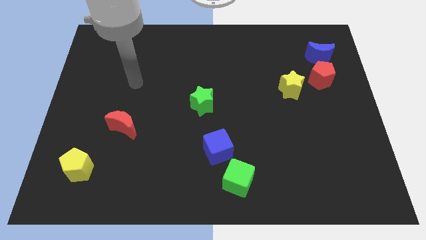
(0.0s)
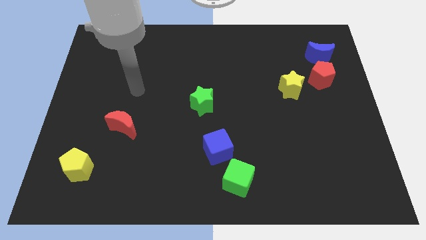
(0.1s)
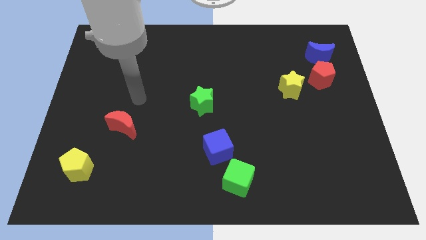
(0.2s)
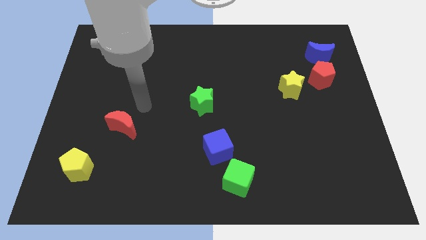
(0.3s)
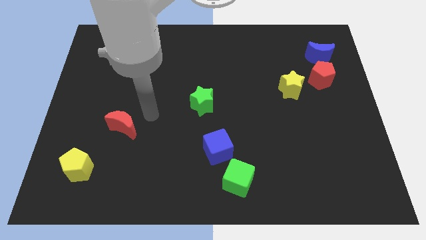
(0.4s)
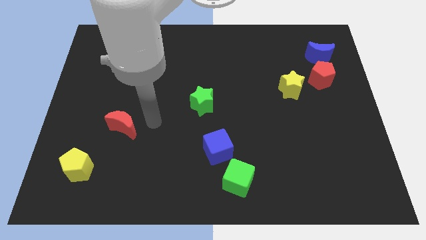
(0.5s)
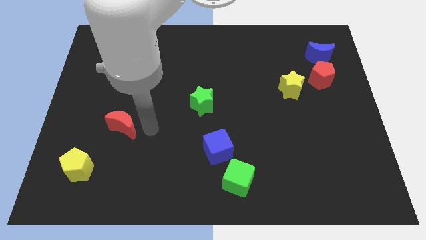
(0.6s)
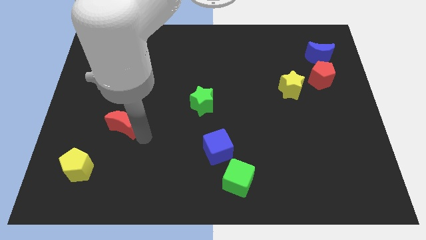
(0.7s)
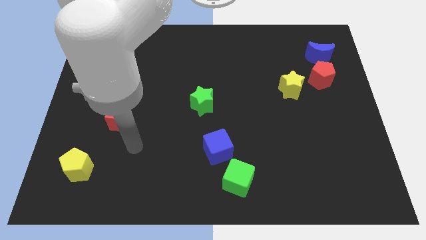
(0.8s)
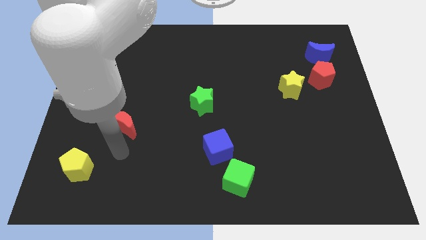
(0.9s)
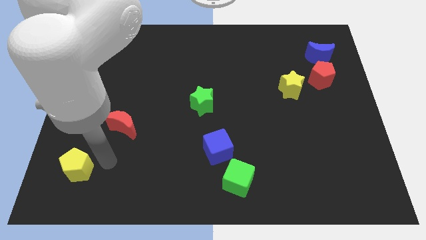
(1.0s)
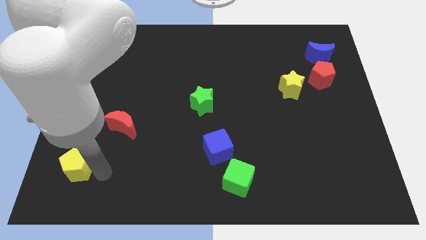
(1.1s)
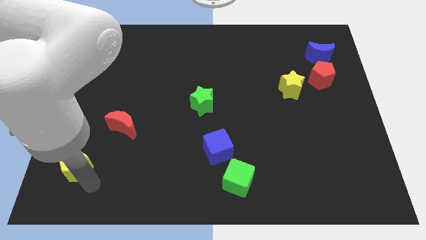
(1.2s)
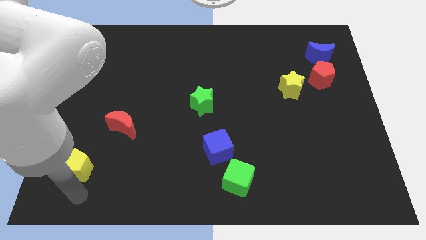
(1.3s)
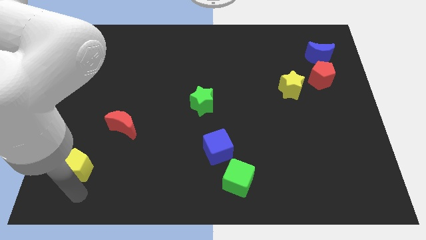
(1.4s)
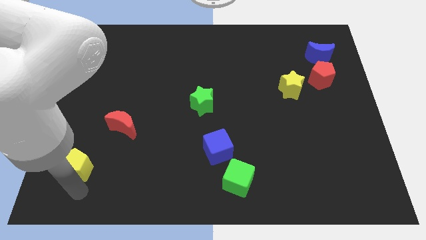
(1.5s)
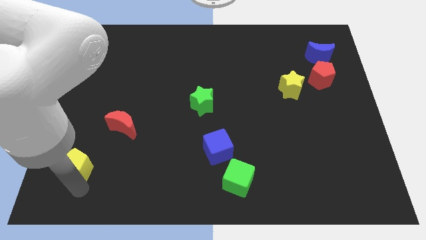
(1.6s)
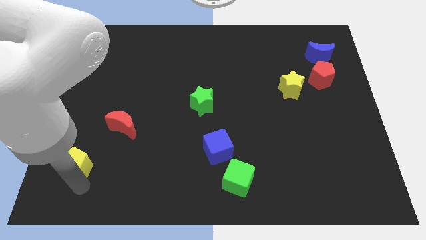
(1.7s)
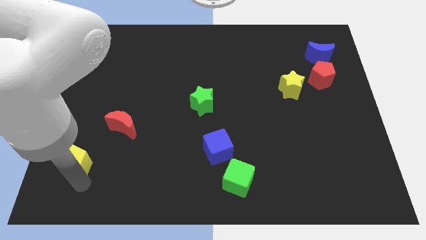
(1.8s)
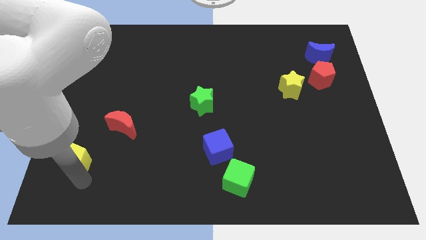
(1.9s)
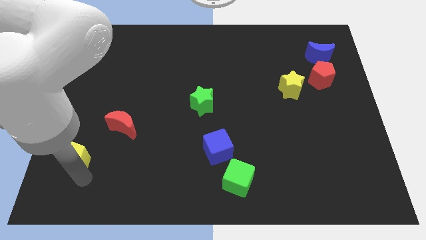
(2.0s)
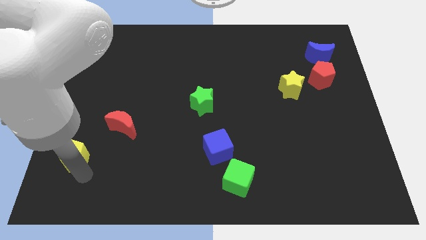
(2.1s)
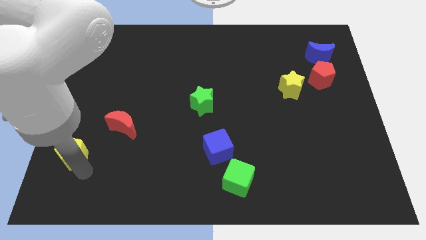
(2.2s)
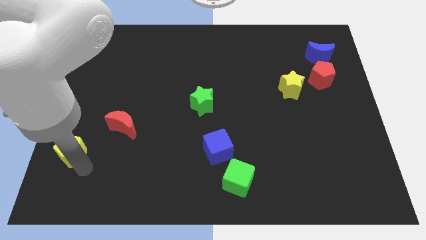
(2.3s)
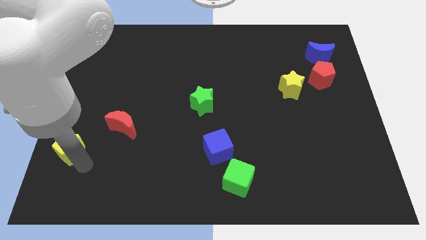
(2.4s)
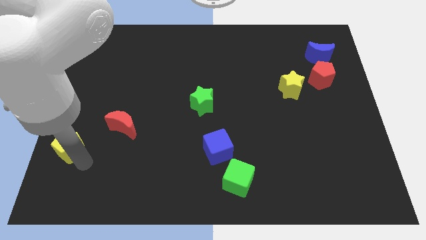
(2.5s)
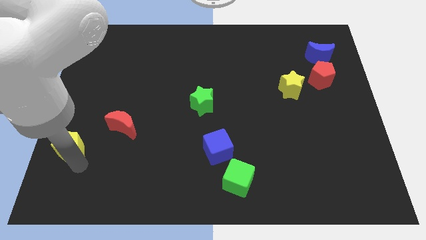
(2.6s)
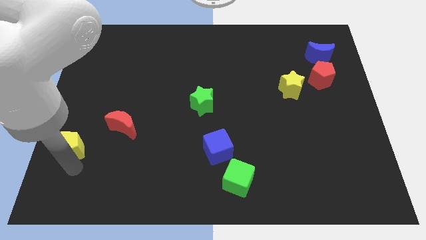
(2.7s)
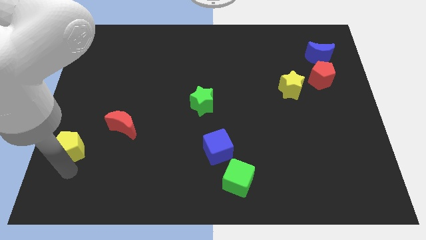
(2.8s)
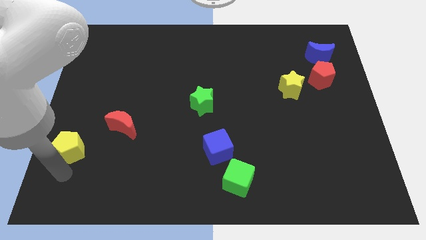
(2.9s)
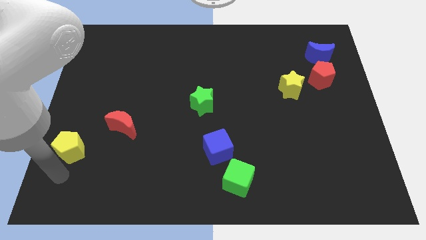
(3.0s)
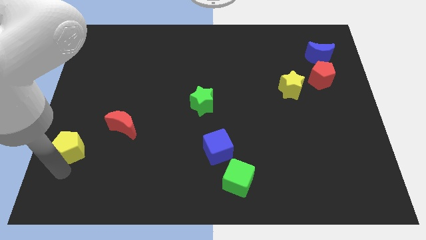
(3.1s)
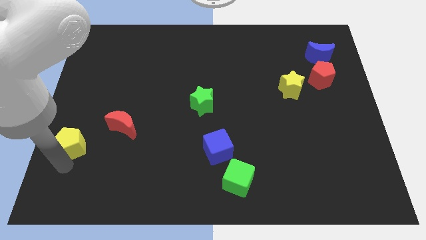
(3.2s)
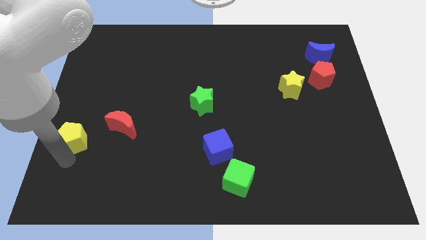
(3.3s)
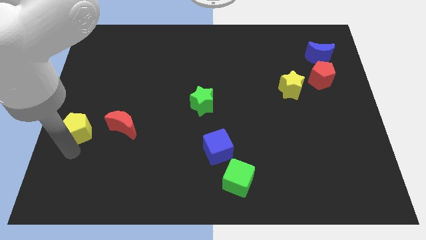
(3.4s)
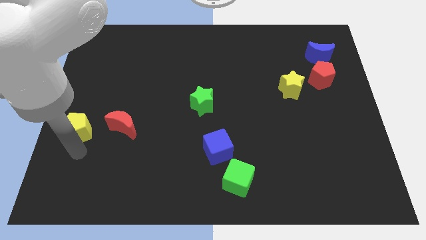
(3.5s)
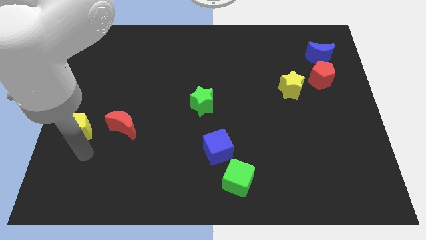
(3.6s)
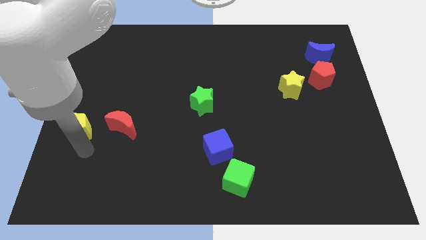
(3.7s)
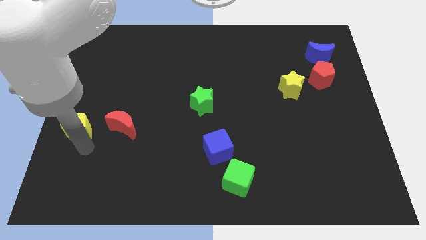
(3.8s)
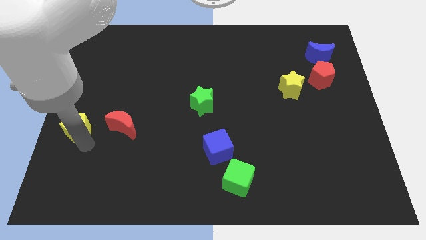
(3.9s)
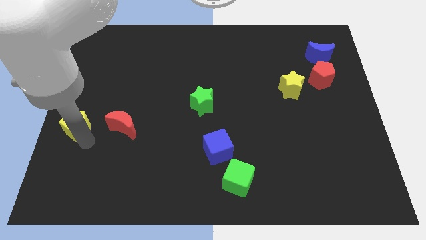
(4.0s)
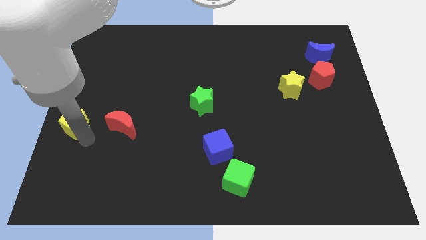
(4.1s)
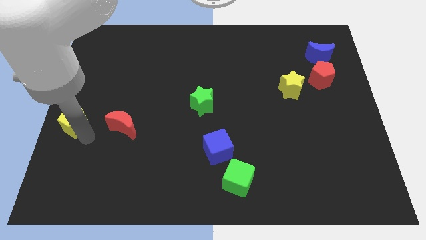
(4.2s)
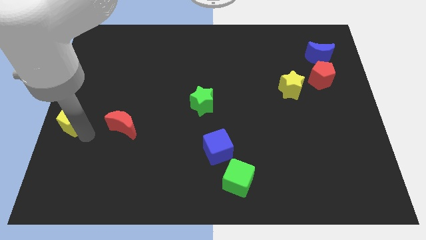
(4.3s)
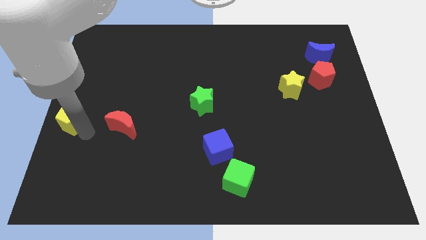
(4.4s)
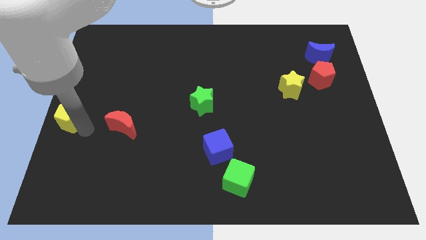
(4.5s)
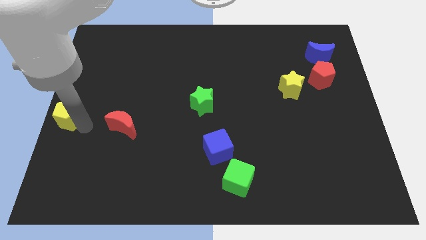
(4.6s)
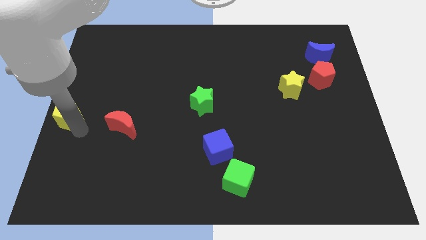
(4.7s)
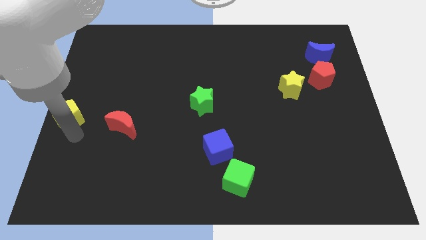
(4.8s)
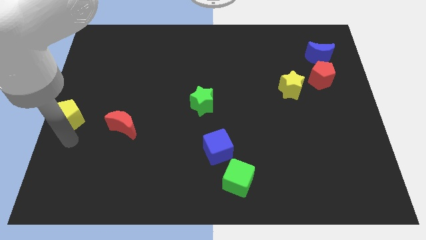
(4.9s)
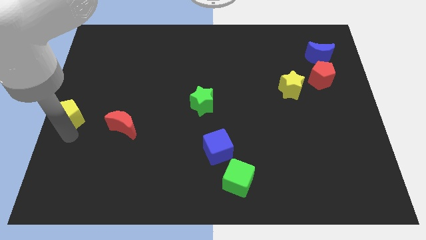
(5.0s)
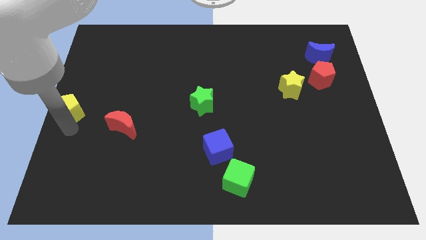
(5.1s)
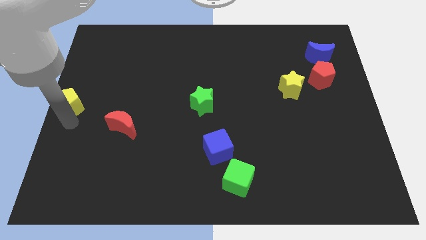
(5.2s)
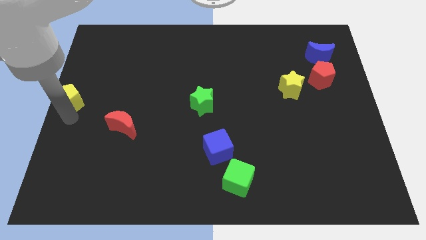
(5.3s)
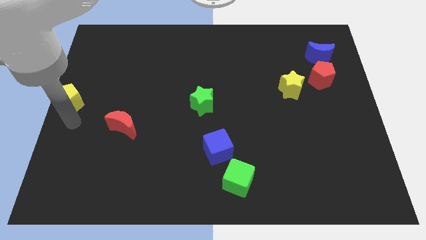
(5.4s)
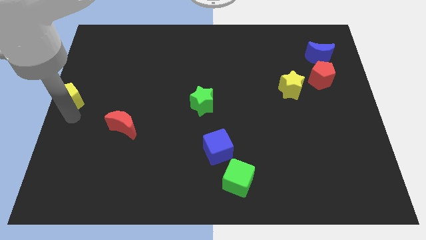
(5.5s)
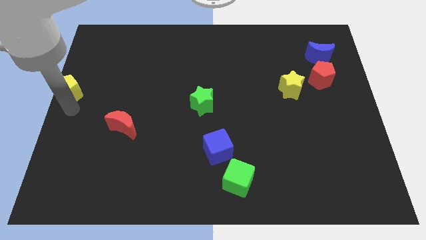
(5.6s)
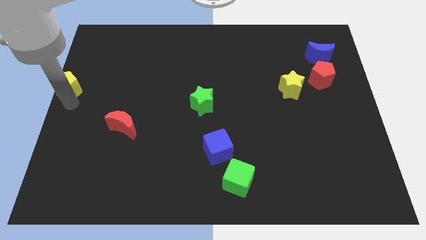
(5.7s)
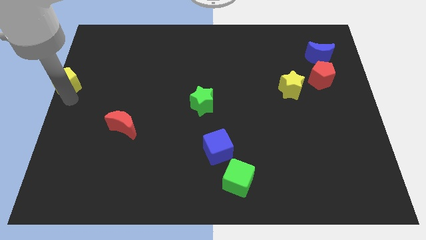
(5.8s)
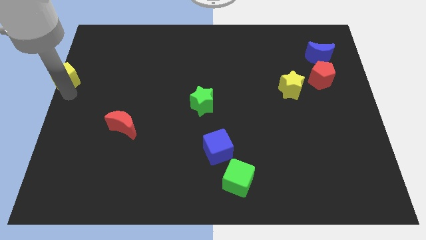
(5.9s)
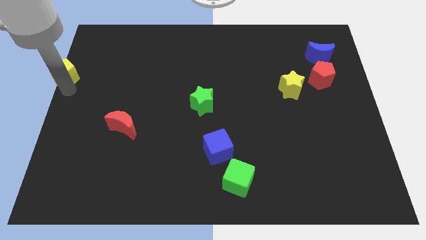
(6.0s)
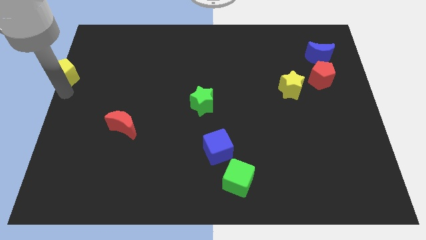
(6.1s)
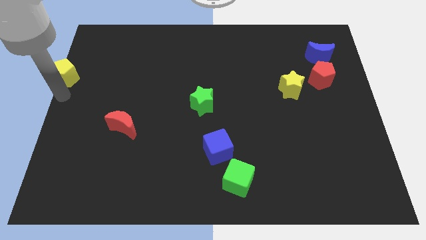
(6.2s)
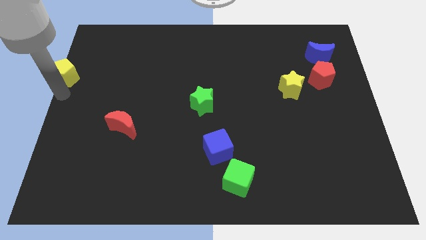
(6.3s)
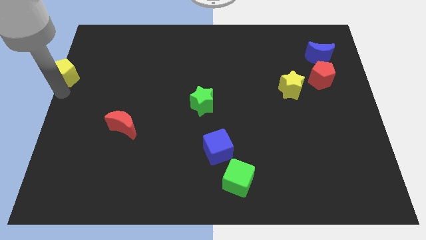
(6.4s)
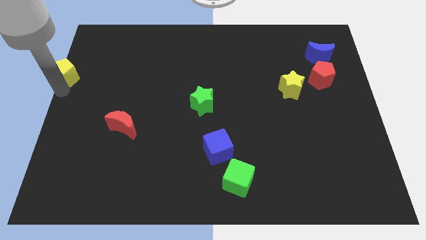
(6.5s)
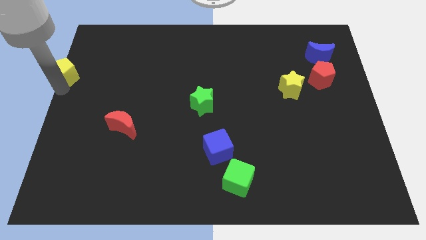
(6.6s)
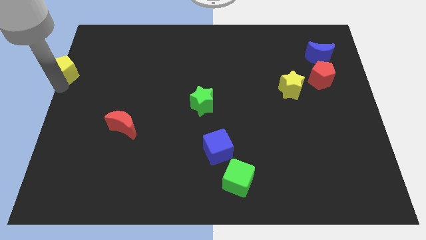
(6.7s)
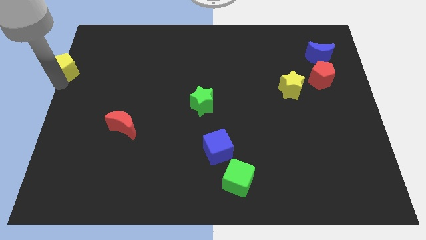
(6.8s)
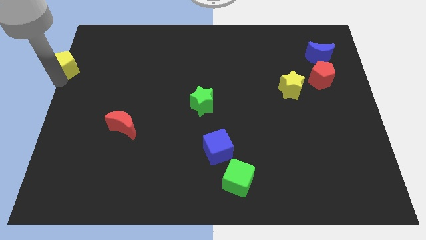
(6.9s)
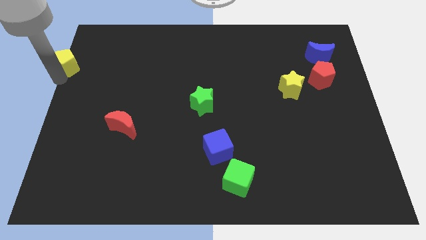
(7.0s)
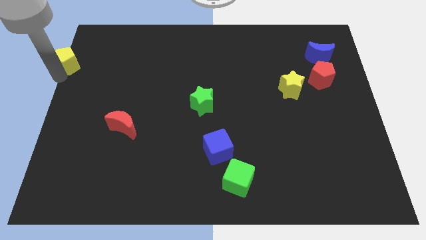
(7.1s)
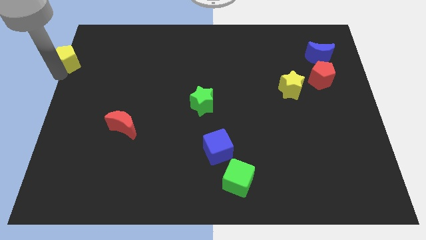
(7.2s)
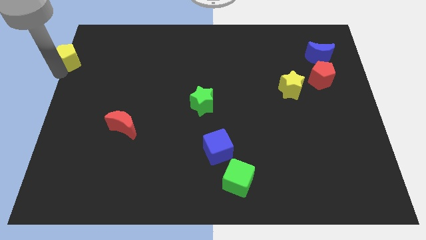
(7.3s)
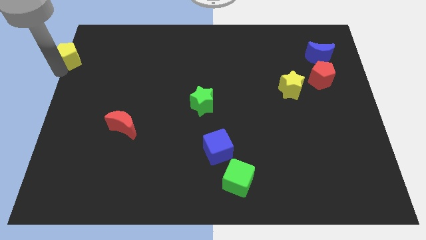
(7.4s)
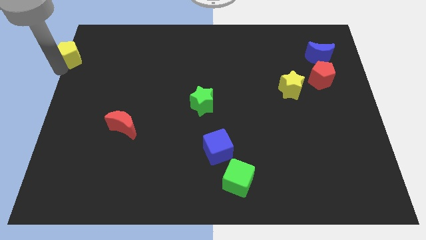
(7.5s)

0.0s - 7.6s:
push the yellow pentagon to the top left corner

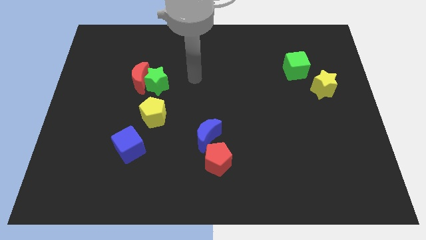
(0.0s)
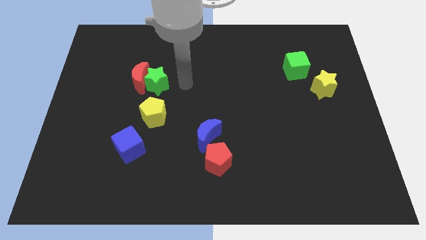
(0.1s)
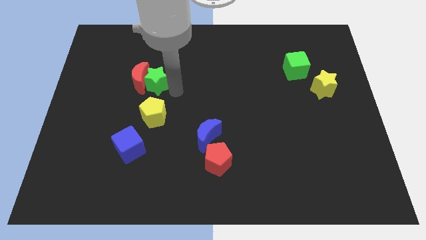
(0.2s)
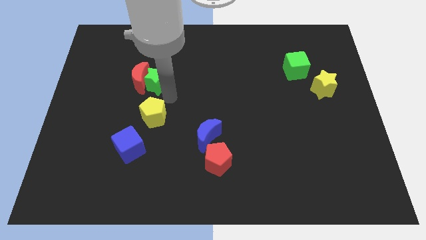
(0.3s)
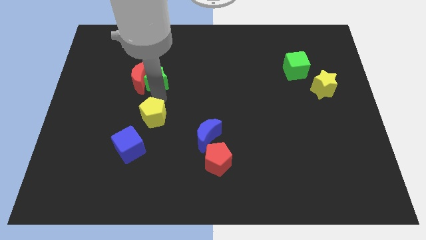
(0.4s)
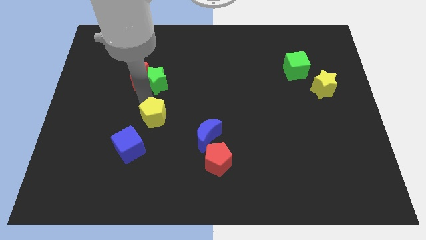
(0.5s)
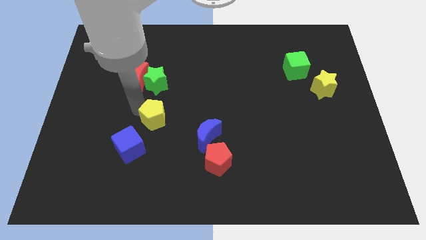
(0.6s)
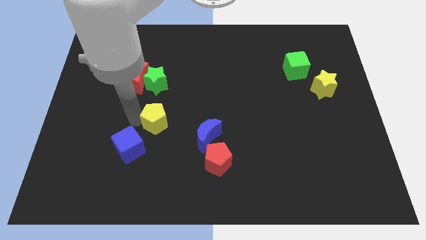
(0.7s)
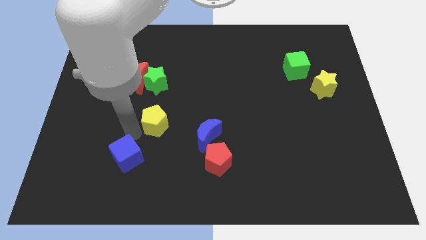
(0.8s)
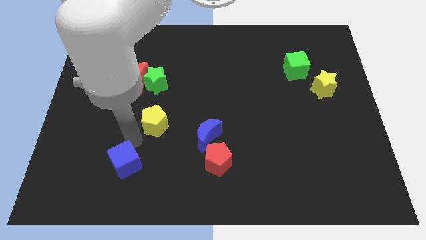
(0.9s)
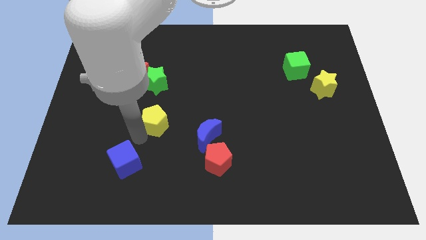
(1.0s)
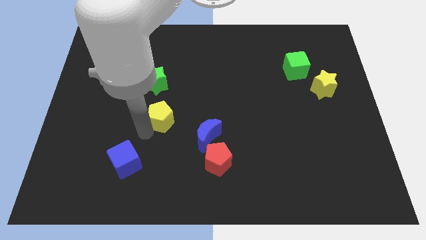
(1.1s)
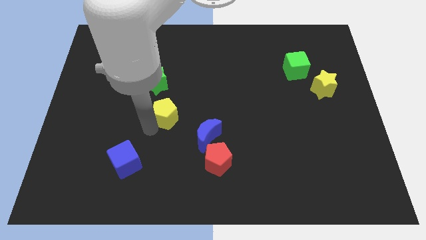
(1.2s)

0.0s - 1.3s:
put the yellow pentagon to the center

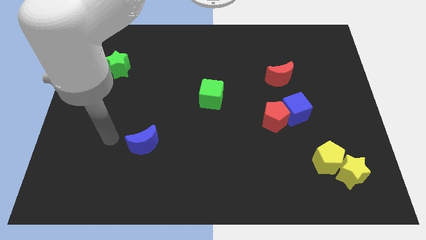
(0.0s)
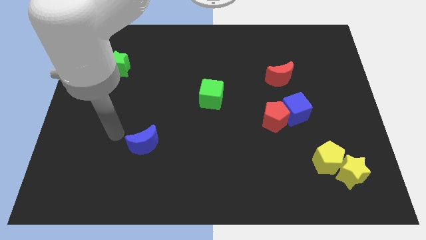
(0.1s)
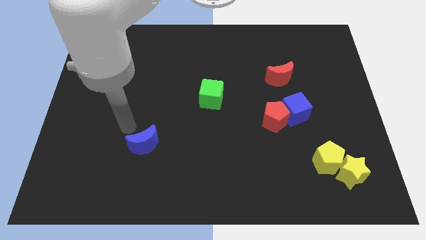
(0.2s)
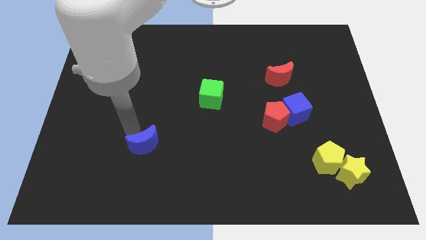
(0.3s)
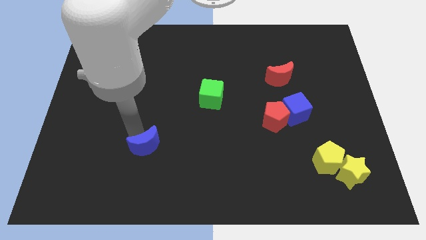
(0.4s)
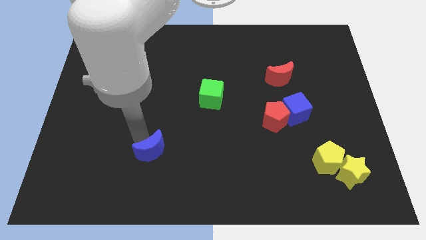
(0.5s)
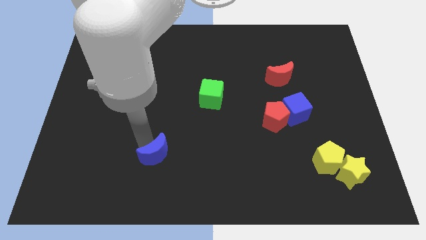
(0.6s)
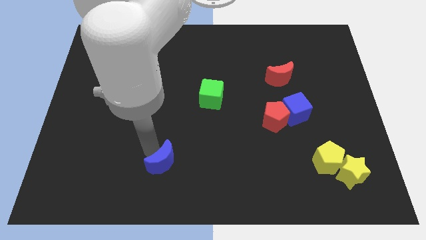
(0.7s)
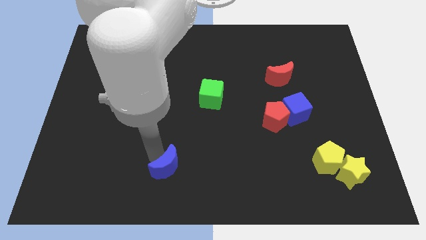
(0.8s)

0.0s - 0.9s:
move the blue moon to the bottom side
